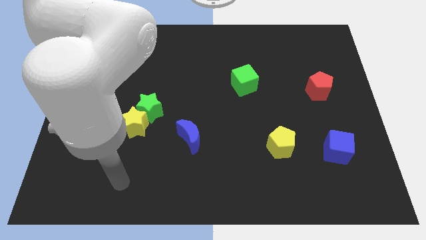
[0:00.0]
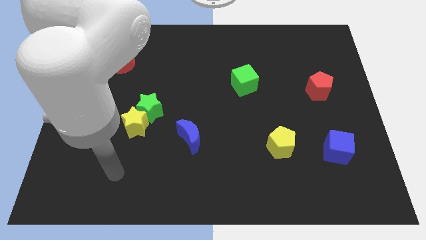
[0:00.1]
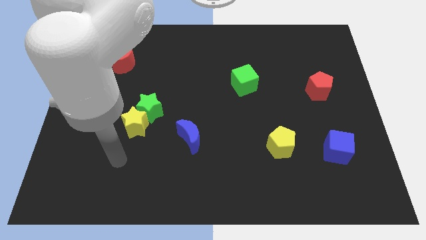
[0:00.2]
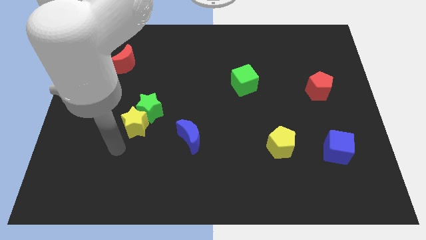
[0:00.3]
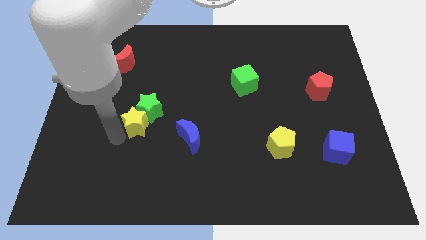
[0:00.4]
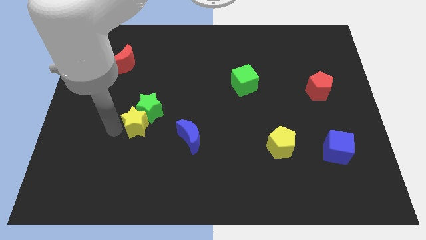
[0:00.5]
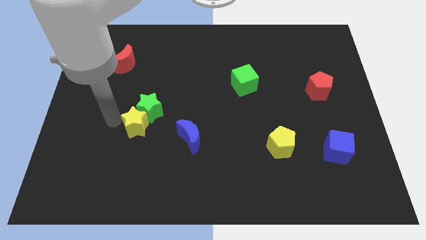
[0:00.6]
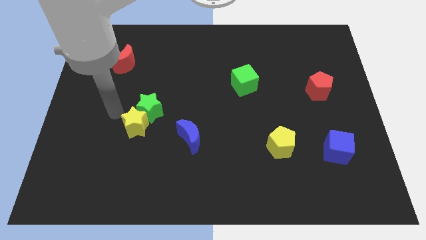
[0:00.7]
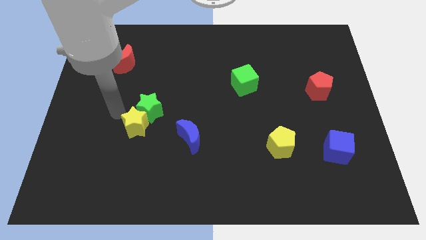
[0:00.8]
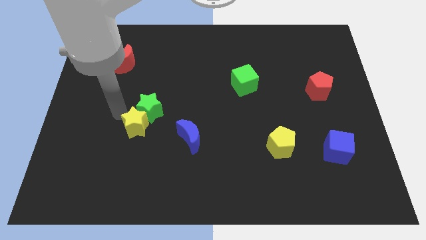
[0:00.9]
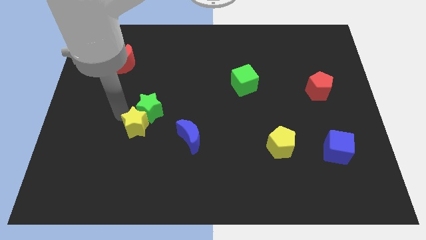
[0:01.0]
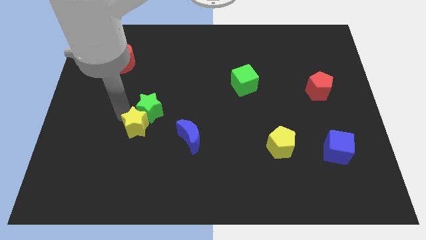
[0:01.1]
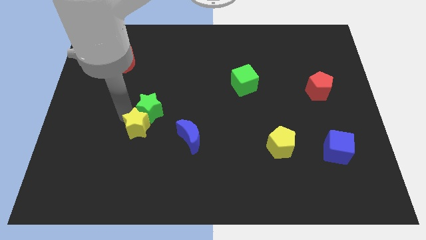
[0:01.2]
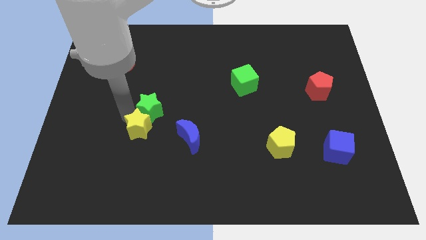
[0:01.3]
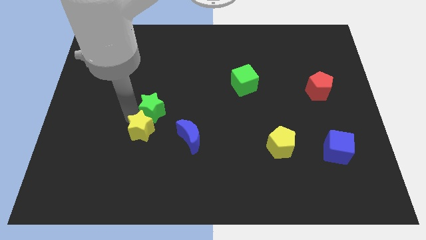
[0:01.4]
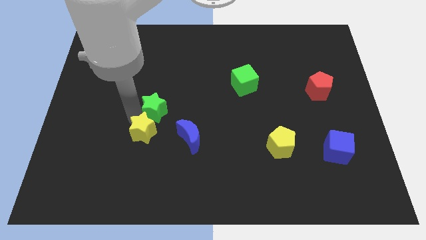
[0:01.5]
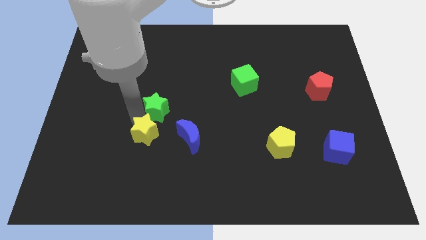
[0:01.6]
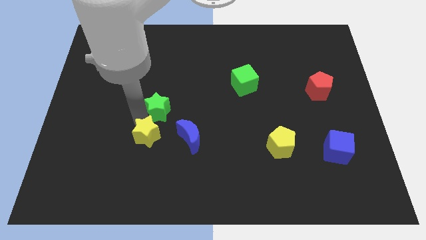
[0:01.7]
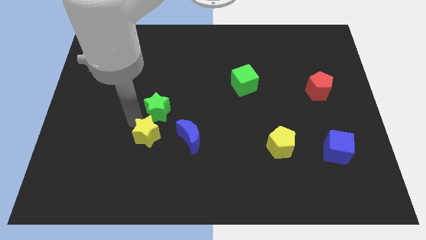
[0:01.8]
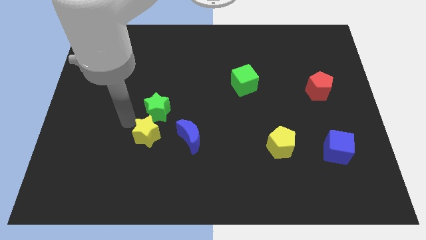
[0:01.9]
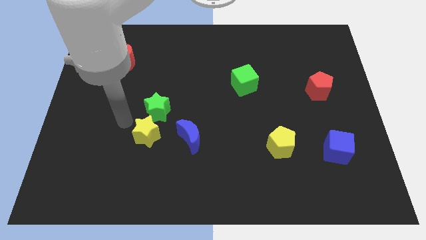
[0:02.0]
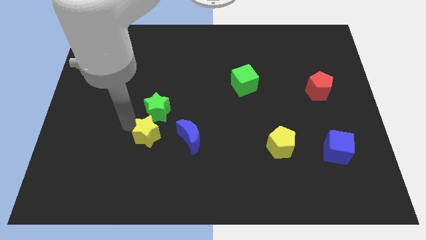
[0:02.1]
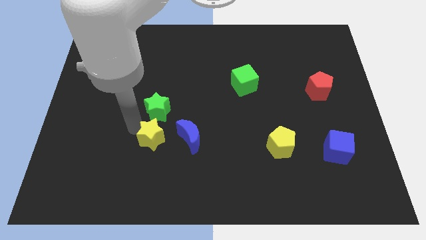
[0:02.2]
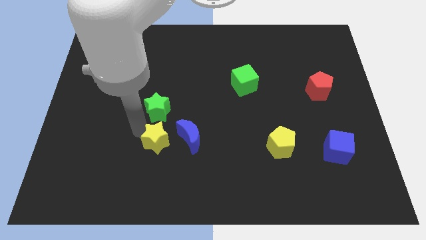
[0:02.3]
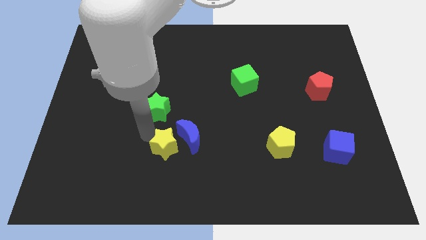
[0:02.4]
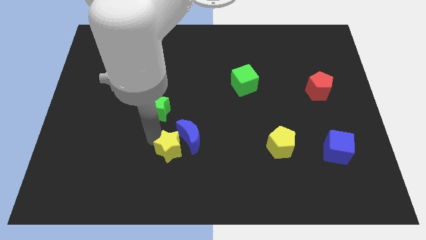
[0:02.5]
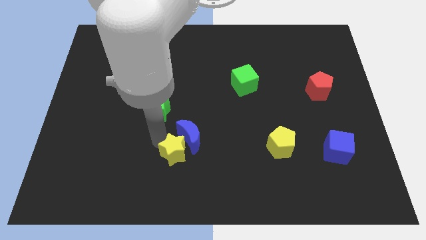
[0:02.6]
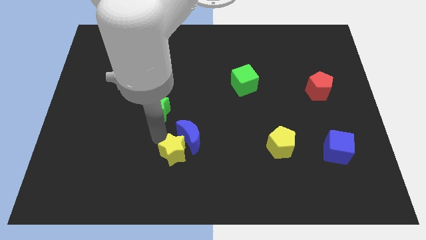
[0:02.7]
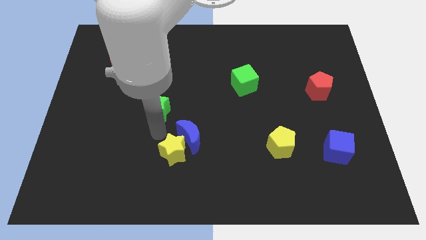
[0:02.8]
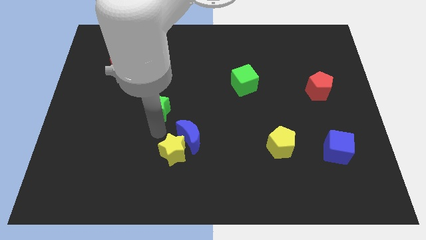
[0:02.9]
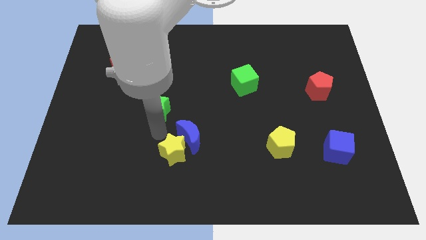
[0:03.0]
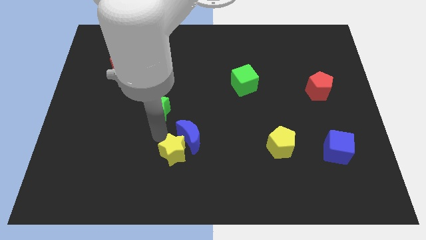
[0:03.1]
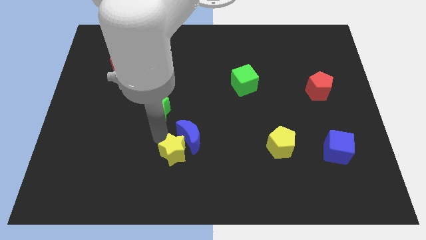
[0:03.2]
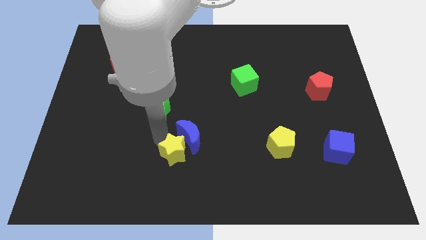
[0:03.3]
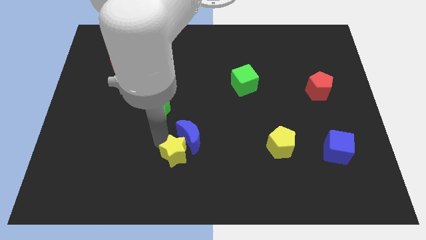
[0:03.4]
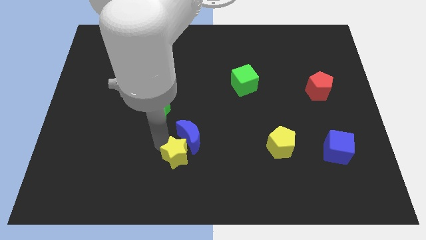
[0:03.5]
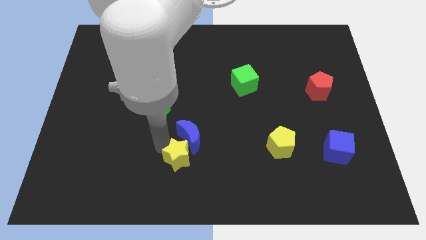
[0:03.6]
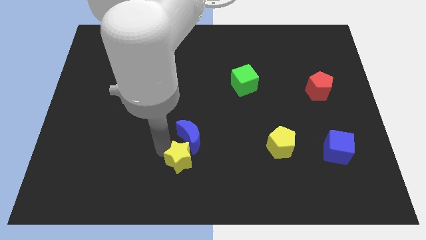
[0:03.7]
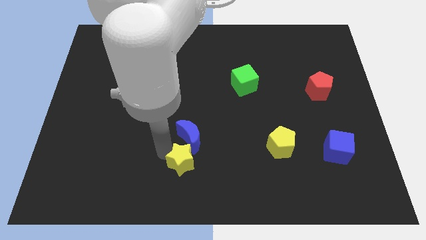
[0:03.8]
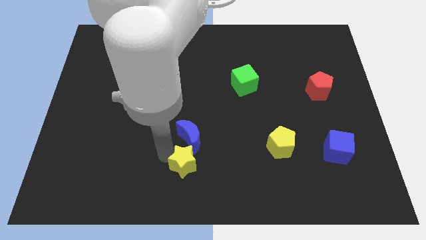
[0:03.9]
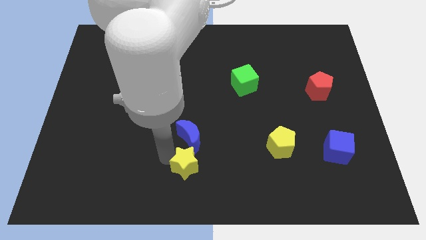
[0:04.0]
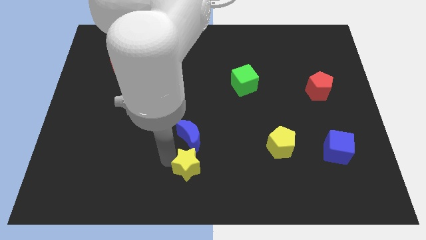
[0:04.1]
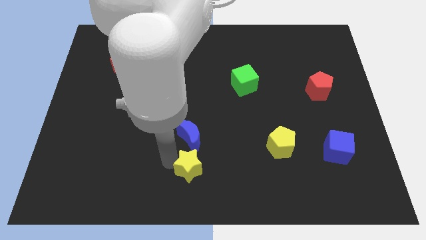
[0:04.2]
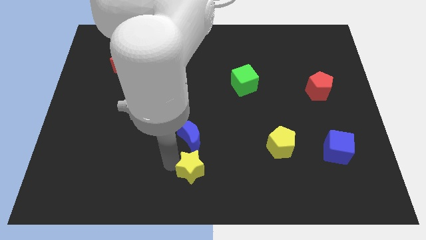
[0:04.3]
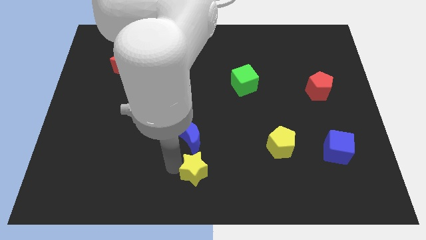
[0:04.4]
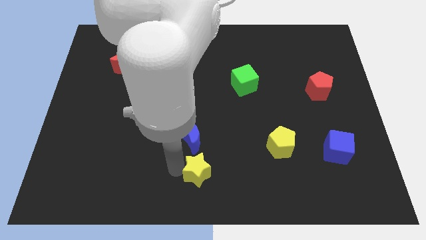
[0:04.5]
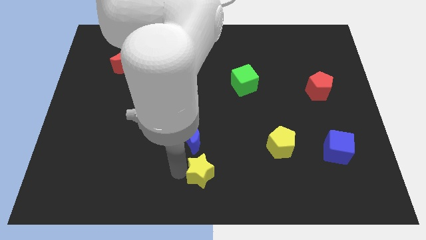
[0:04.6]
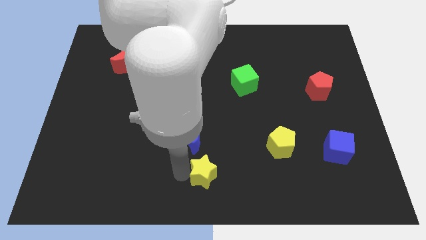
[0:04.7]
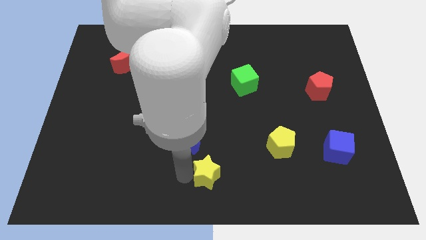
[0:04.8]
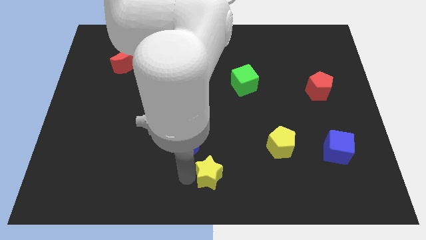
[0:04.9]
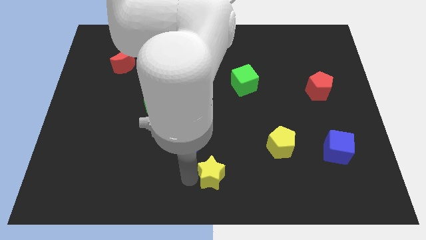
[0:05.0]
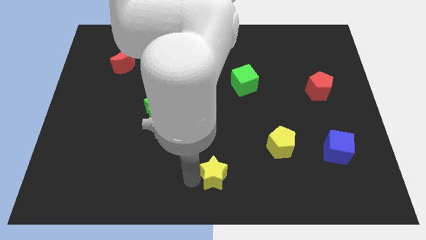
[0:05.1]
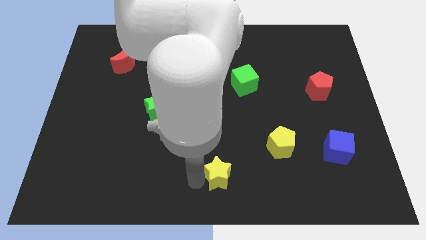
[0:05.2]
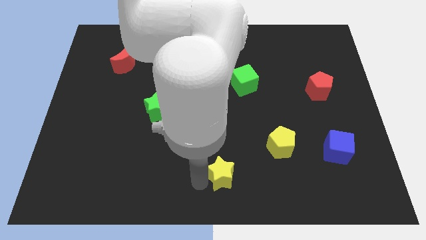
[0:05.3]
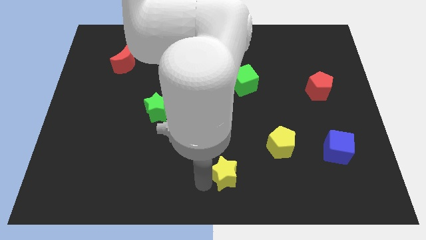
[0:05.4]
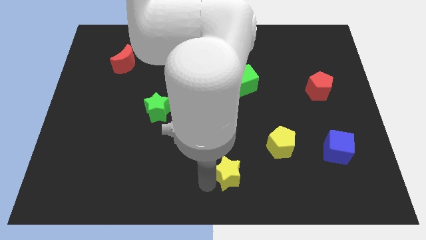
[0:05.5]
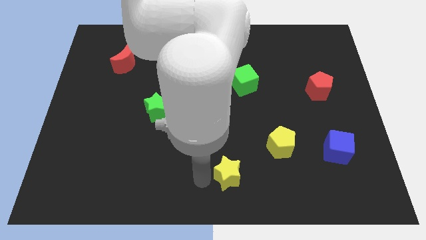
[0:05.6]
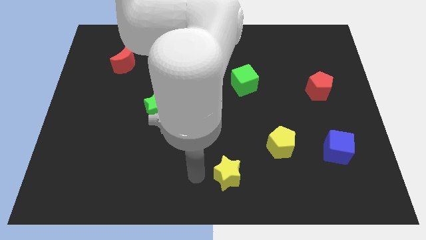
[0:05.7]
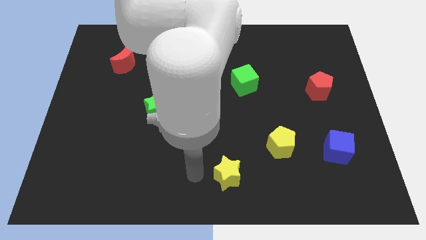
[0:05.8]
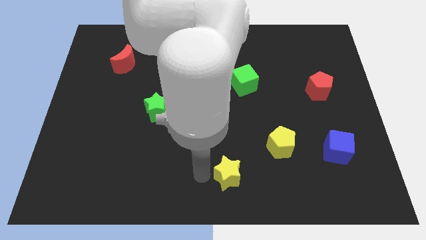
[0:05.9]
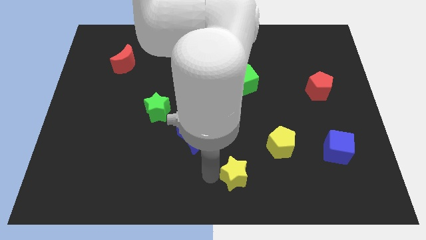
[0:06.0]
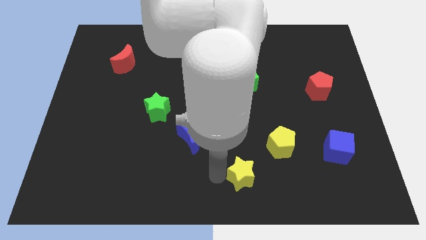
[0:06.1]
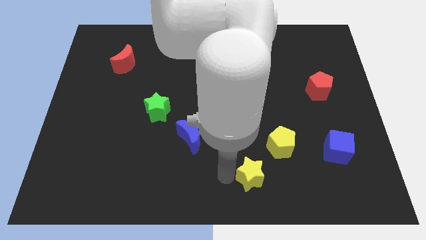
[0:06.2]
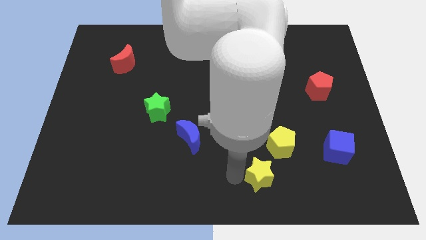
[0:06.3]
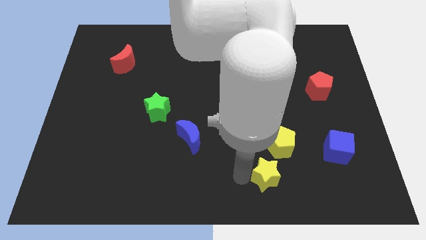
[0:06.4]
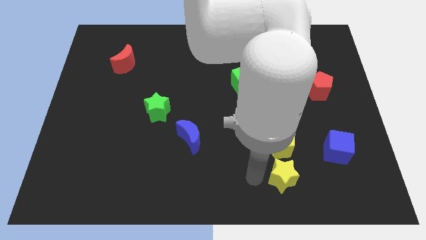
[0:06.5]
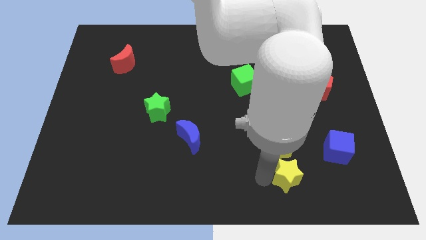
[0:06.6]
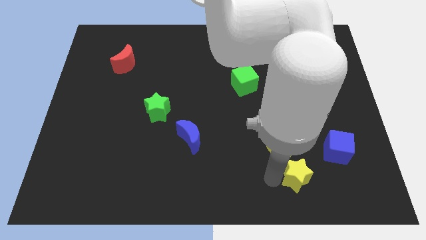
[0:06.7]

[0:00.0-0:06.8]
push the yellow star to the bottom left side of the blue cube
